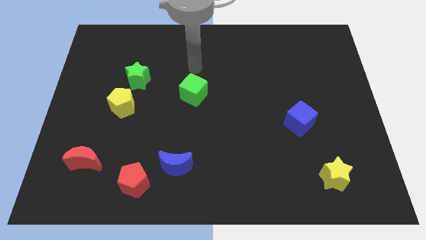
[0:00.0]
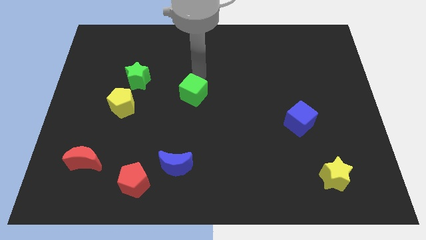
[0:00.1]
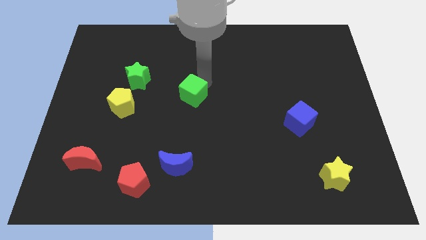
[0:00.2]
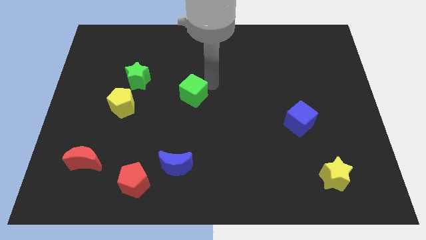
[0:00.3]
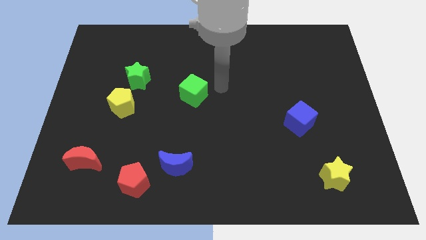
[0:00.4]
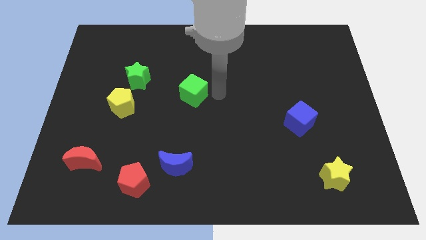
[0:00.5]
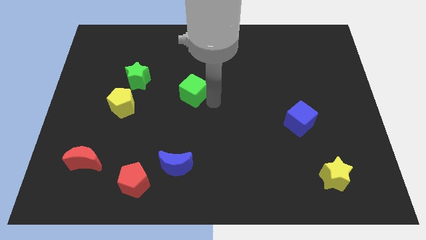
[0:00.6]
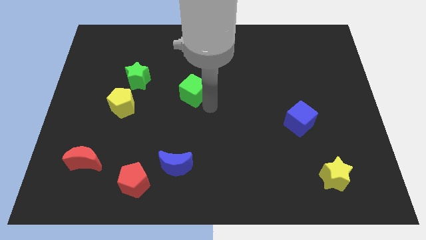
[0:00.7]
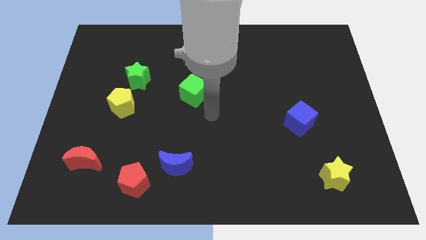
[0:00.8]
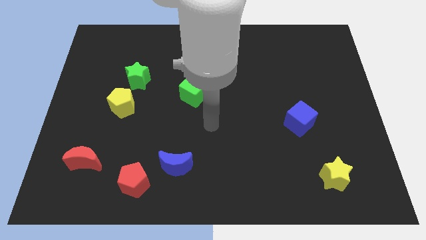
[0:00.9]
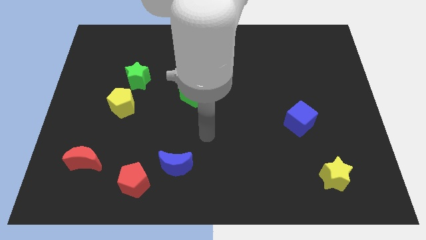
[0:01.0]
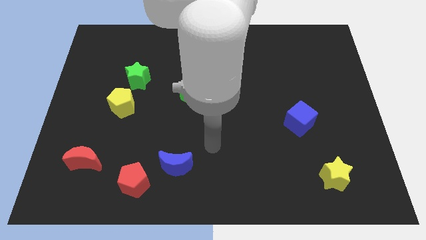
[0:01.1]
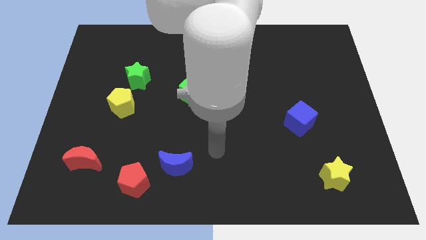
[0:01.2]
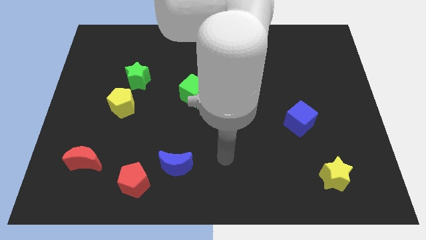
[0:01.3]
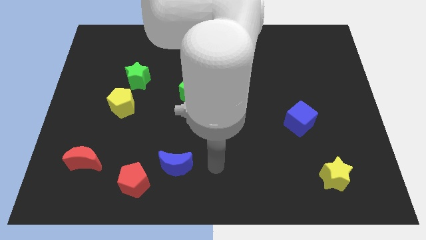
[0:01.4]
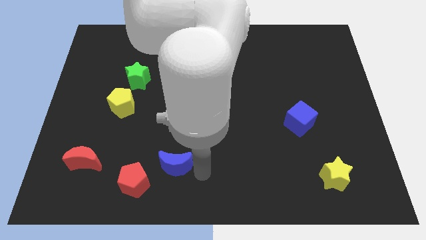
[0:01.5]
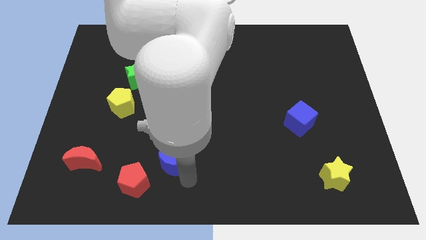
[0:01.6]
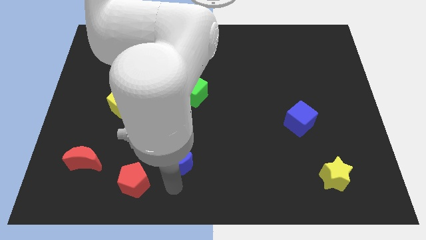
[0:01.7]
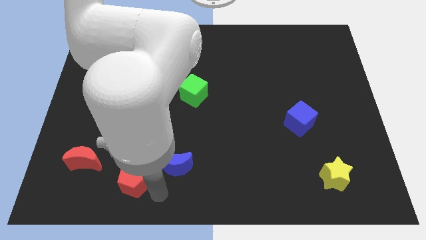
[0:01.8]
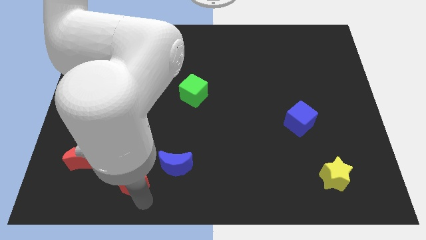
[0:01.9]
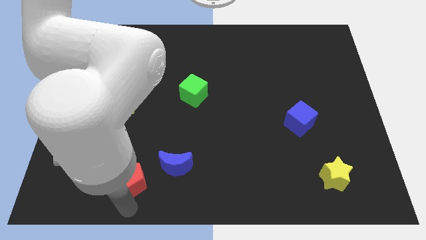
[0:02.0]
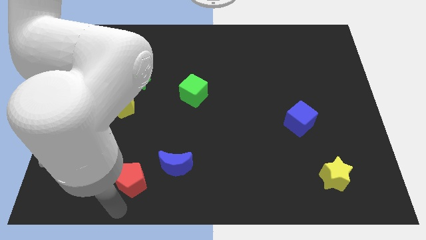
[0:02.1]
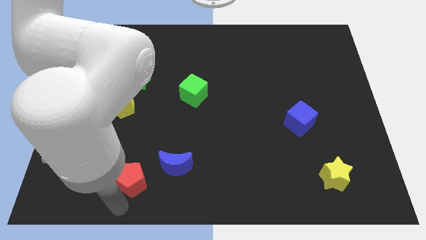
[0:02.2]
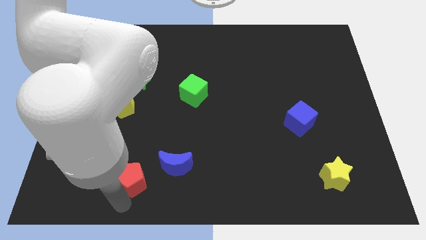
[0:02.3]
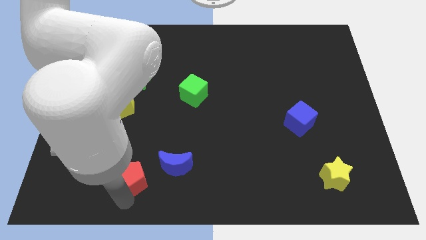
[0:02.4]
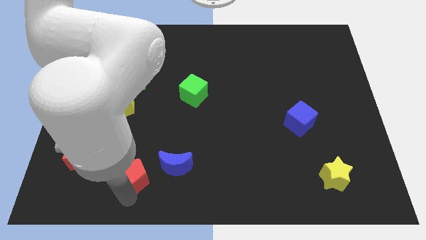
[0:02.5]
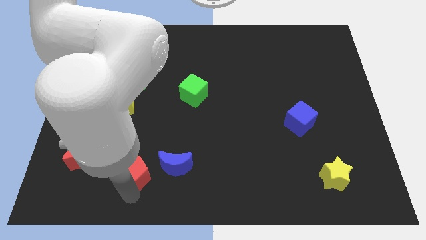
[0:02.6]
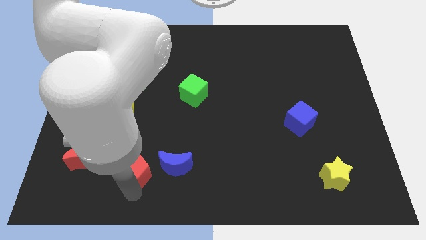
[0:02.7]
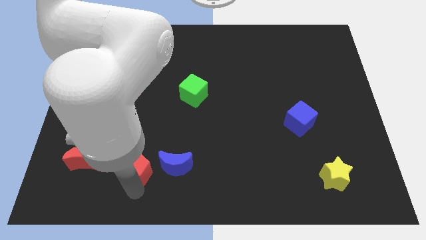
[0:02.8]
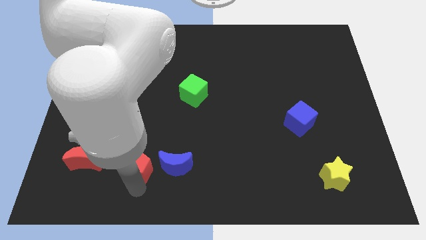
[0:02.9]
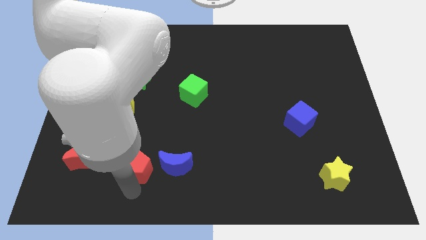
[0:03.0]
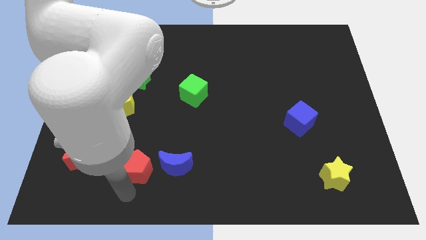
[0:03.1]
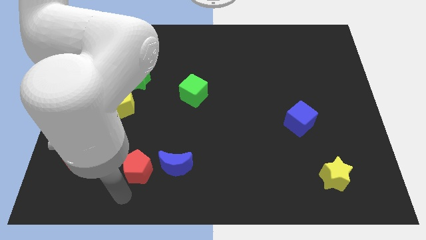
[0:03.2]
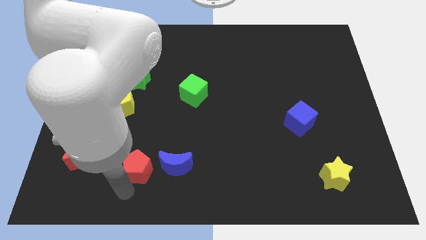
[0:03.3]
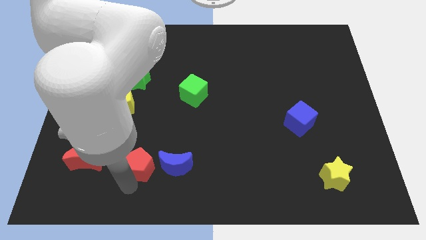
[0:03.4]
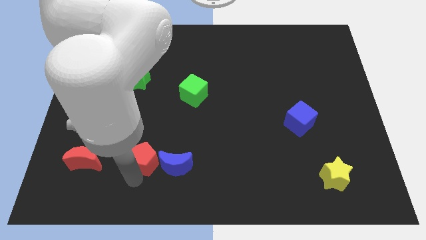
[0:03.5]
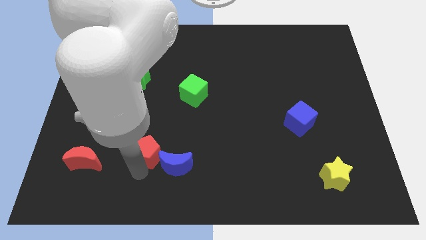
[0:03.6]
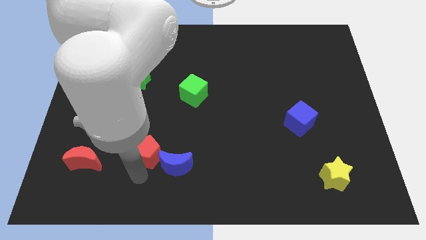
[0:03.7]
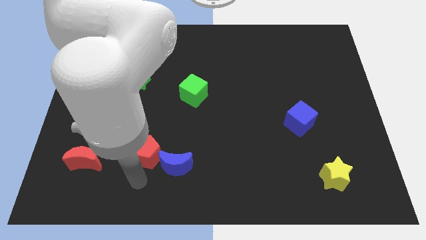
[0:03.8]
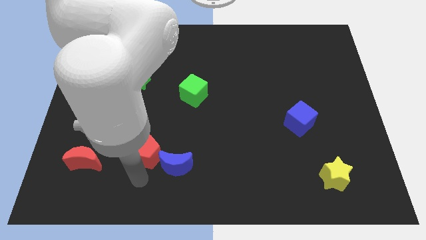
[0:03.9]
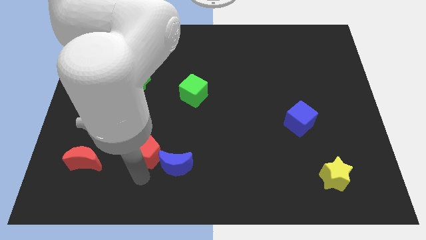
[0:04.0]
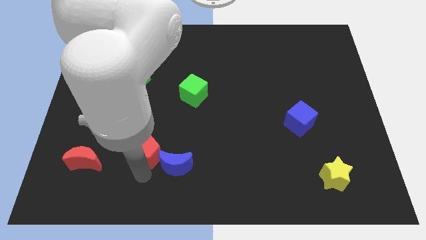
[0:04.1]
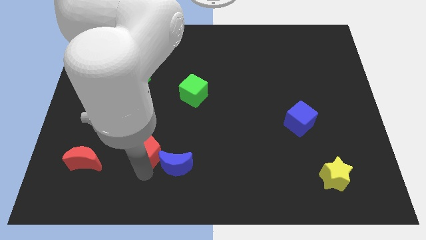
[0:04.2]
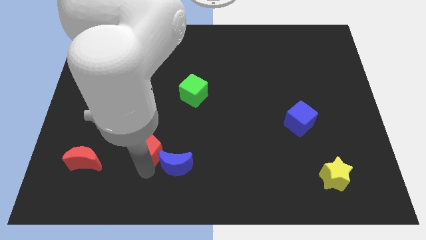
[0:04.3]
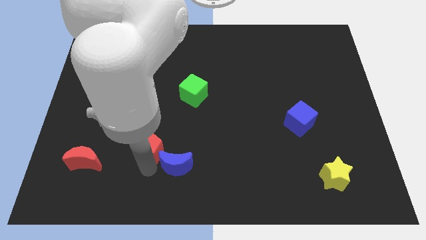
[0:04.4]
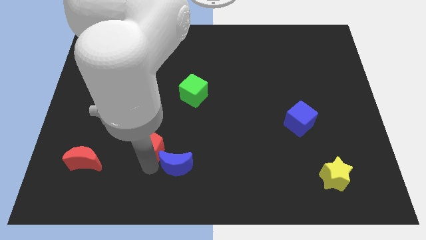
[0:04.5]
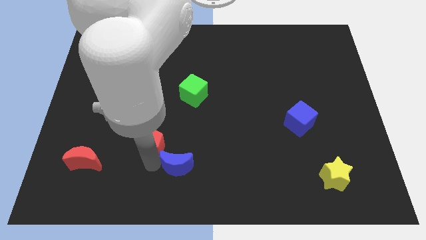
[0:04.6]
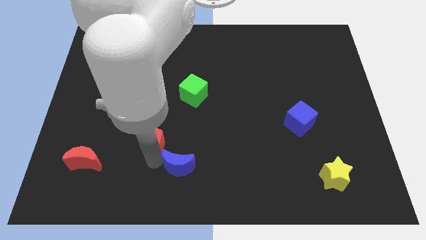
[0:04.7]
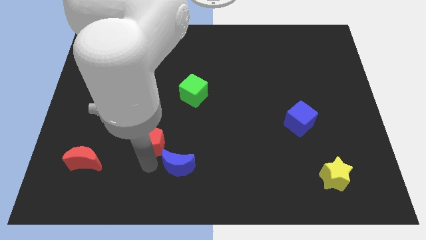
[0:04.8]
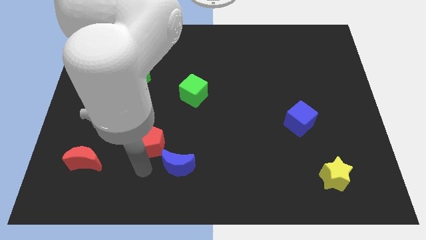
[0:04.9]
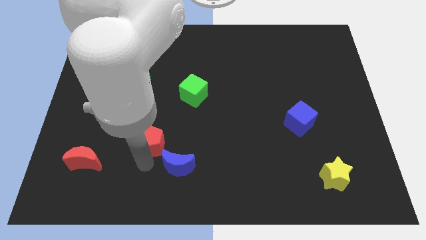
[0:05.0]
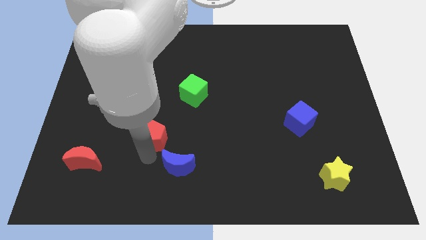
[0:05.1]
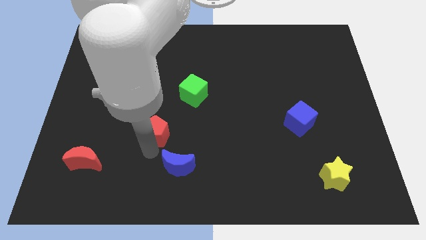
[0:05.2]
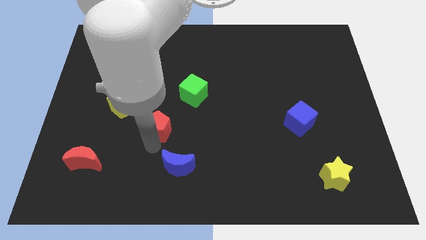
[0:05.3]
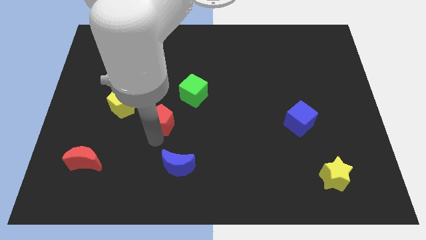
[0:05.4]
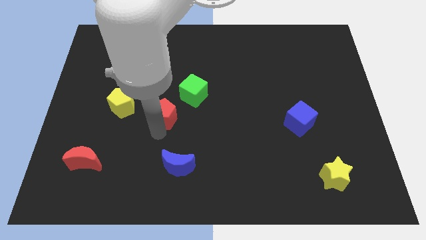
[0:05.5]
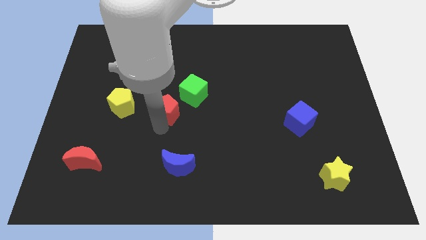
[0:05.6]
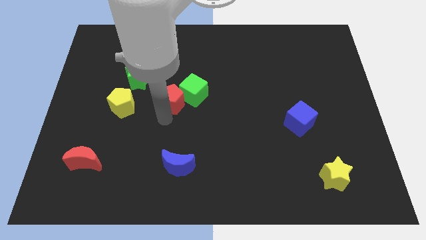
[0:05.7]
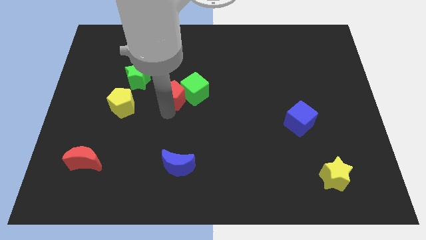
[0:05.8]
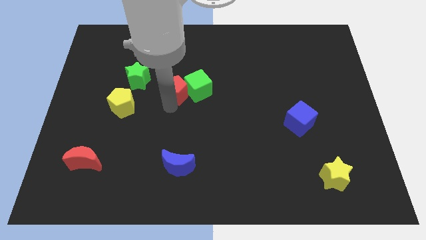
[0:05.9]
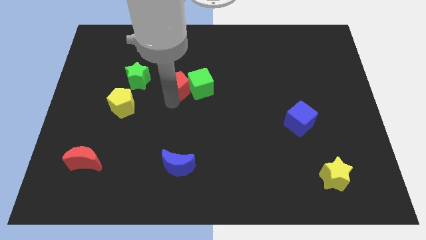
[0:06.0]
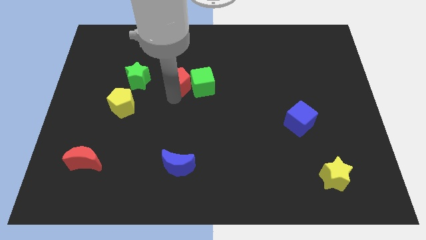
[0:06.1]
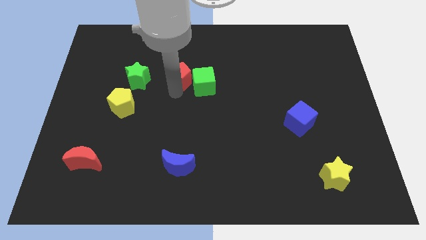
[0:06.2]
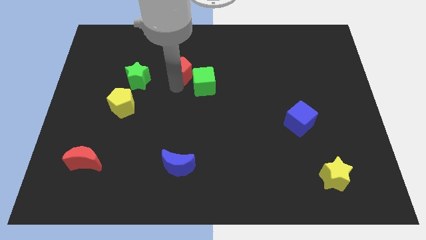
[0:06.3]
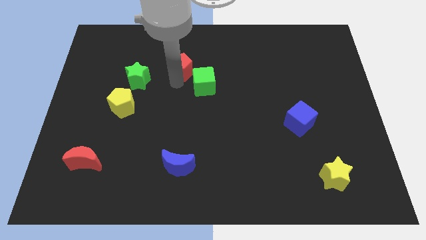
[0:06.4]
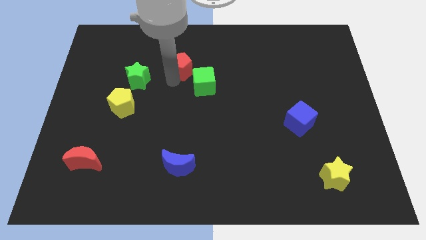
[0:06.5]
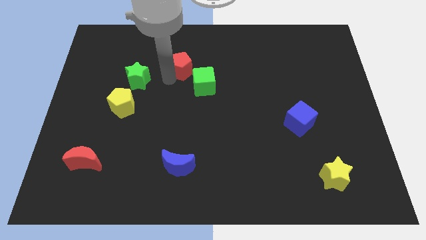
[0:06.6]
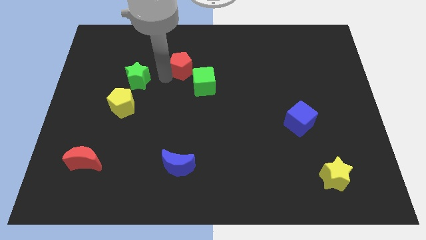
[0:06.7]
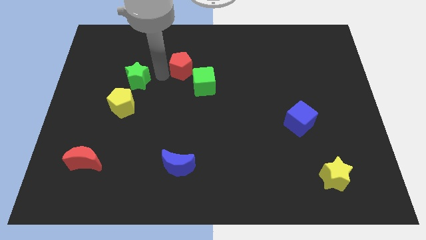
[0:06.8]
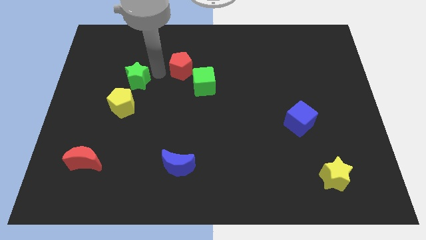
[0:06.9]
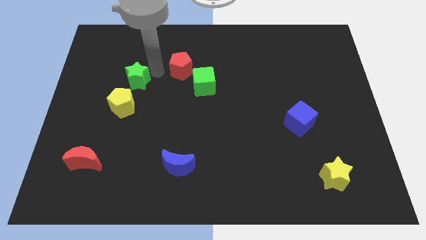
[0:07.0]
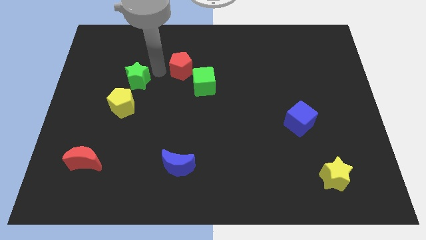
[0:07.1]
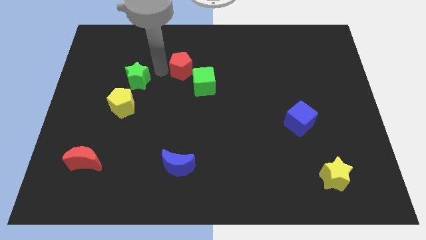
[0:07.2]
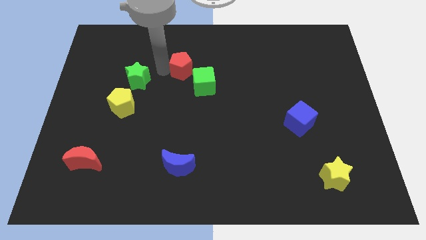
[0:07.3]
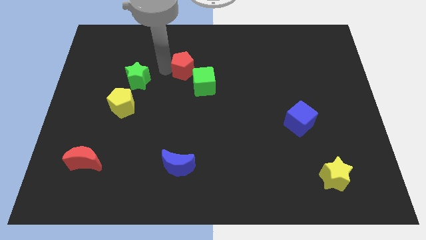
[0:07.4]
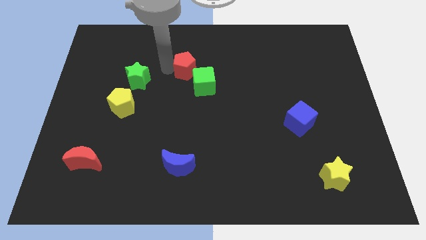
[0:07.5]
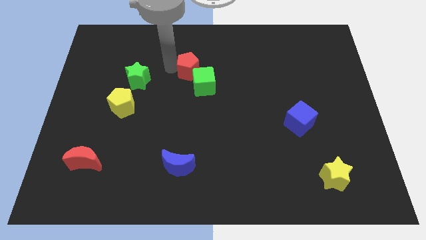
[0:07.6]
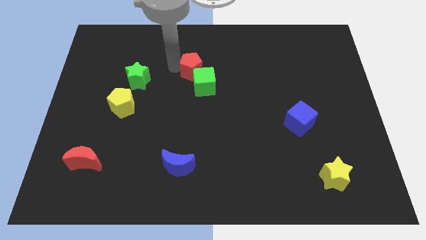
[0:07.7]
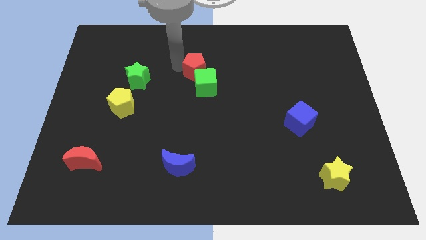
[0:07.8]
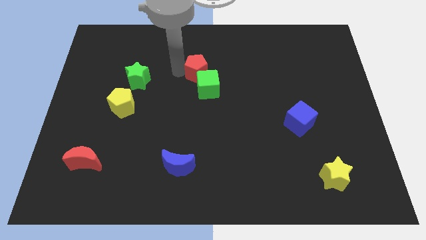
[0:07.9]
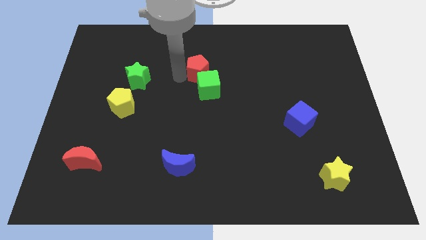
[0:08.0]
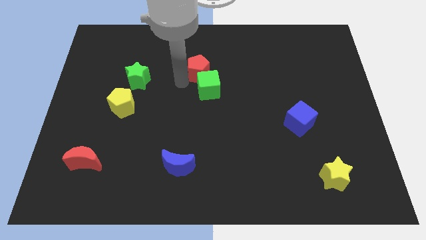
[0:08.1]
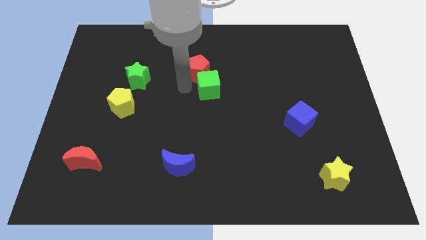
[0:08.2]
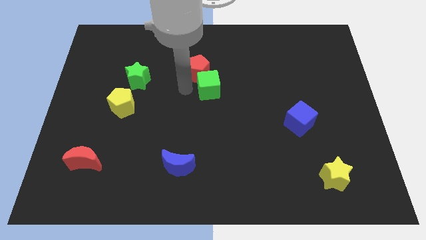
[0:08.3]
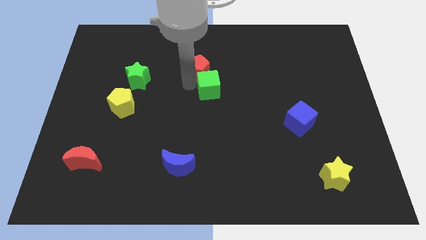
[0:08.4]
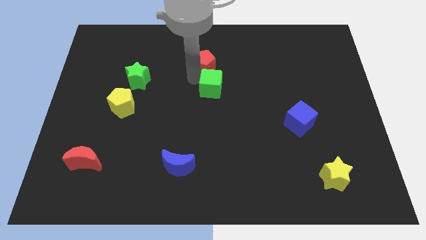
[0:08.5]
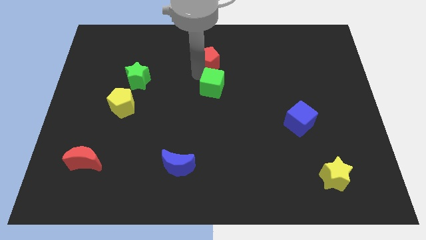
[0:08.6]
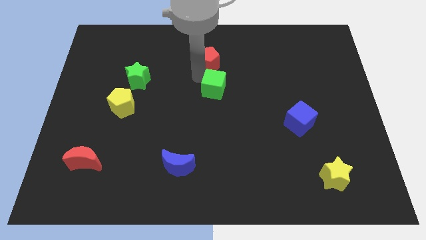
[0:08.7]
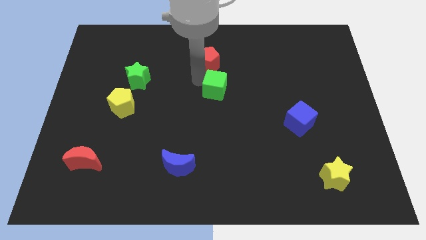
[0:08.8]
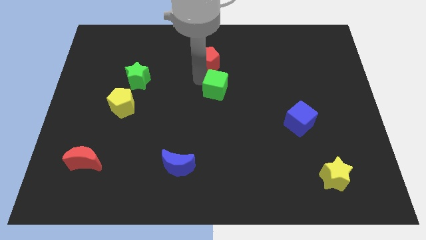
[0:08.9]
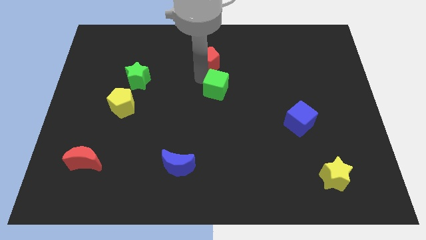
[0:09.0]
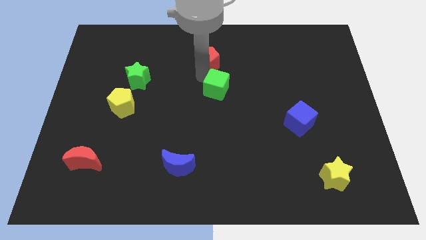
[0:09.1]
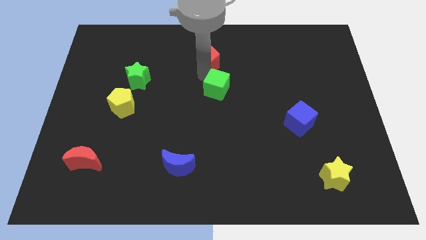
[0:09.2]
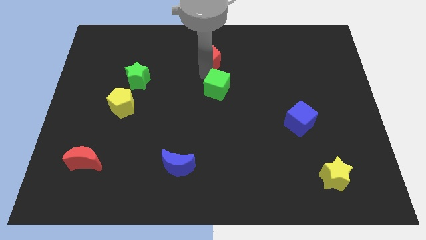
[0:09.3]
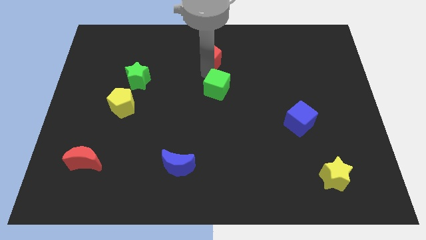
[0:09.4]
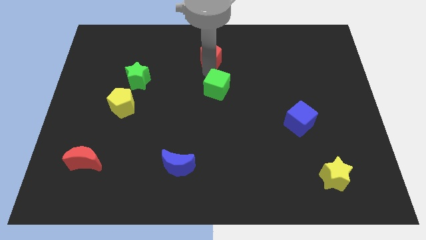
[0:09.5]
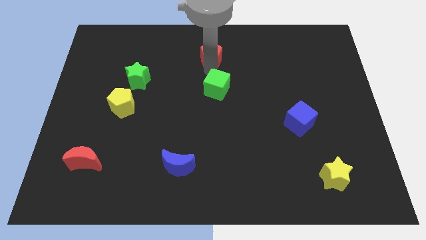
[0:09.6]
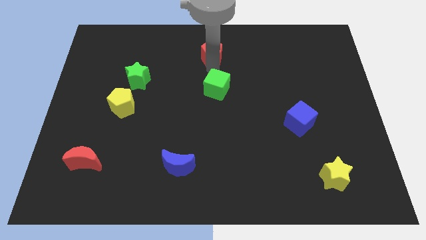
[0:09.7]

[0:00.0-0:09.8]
put the red pentagon to the top side
